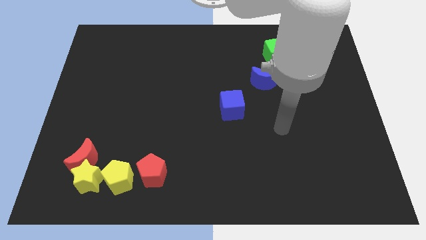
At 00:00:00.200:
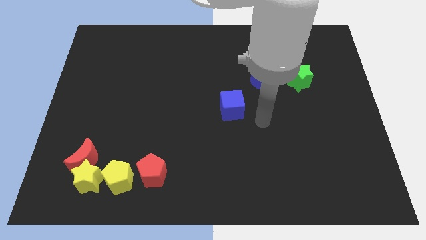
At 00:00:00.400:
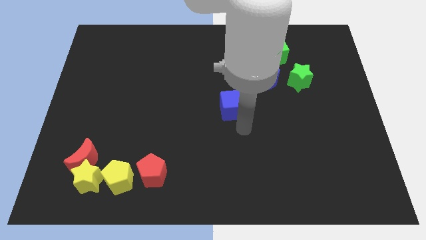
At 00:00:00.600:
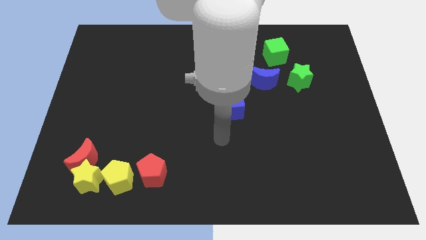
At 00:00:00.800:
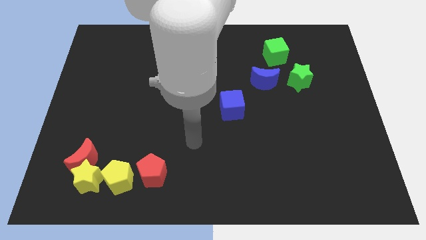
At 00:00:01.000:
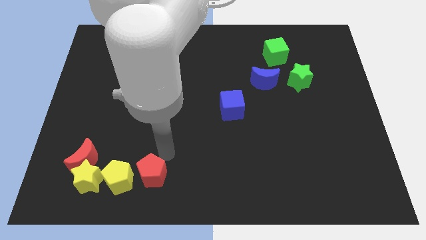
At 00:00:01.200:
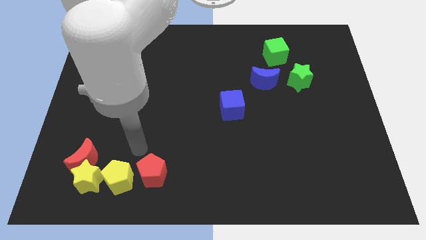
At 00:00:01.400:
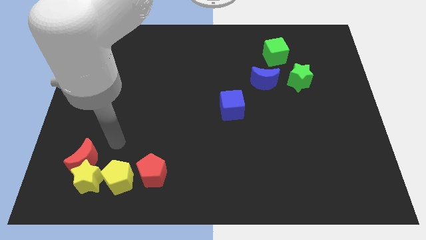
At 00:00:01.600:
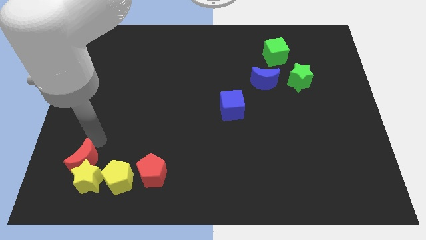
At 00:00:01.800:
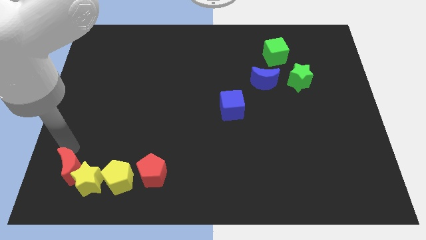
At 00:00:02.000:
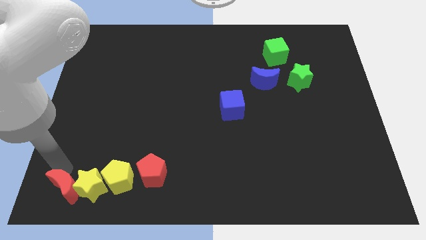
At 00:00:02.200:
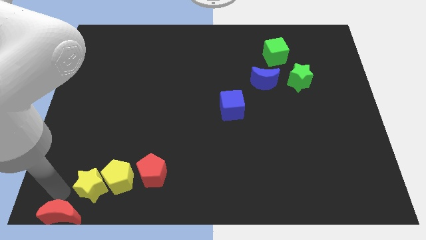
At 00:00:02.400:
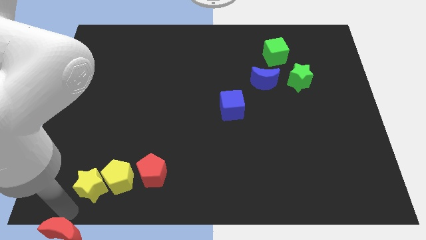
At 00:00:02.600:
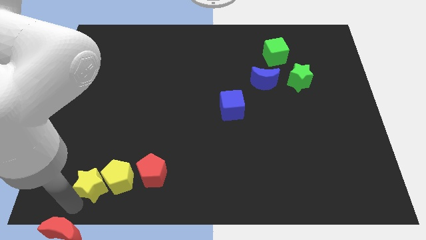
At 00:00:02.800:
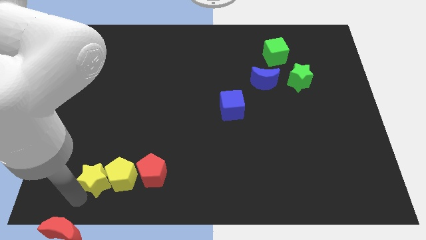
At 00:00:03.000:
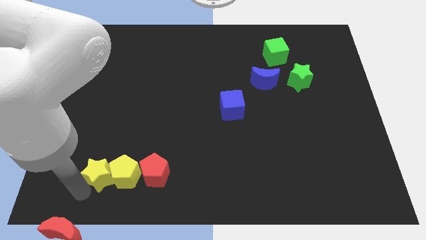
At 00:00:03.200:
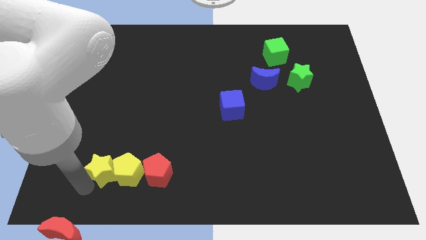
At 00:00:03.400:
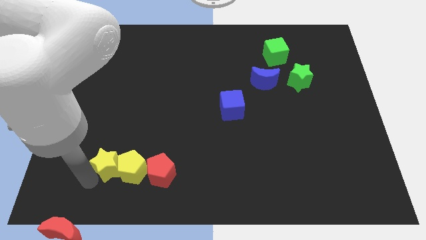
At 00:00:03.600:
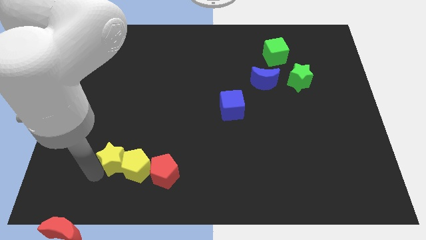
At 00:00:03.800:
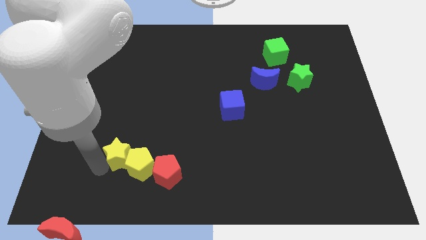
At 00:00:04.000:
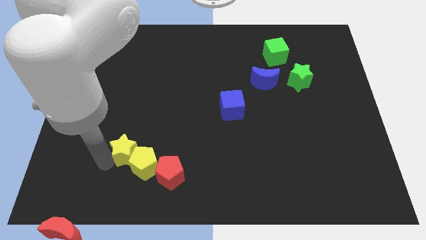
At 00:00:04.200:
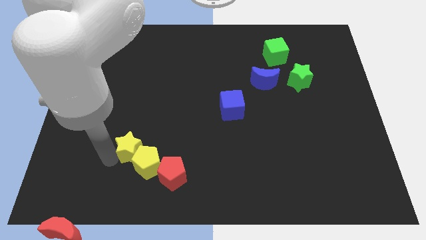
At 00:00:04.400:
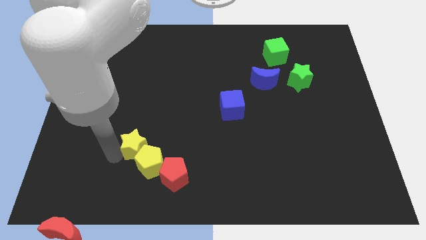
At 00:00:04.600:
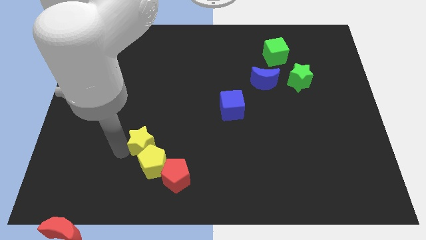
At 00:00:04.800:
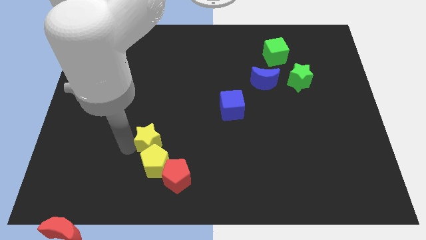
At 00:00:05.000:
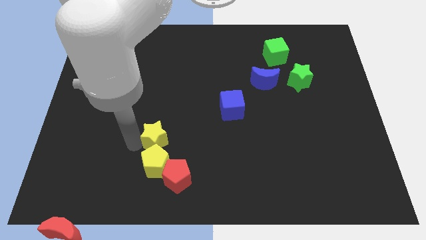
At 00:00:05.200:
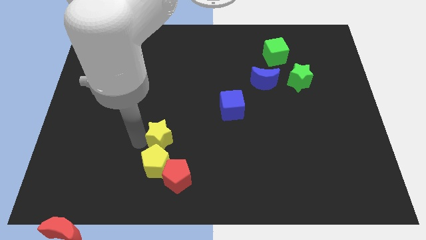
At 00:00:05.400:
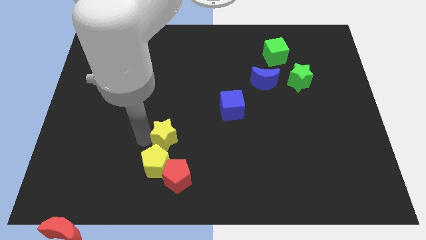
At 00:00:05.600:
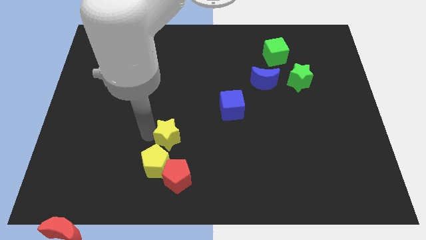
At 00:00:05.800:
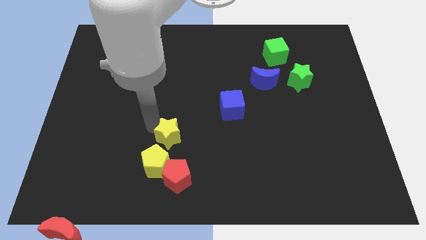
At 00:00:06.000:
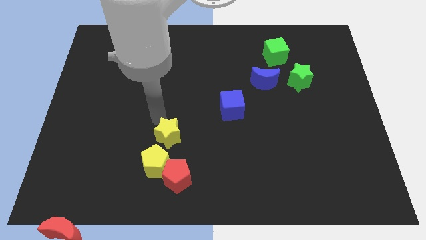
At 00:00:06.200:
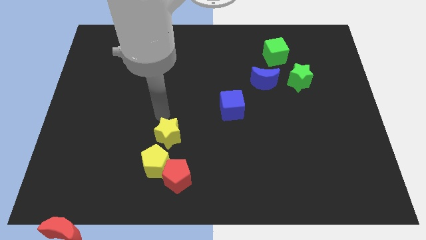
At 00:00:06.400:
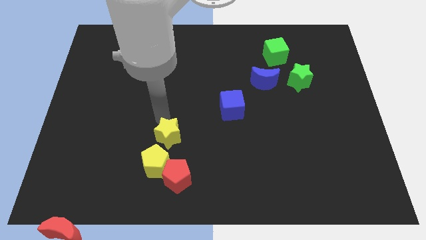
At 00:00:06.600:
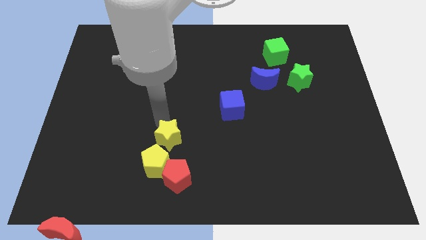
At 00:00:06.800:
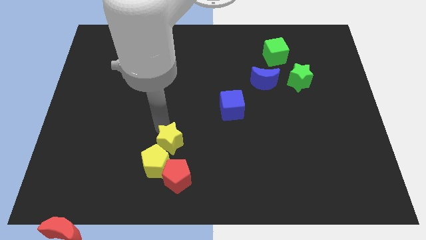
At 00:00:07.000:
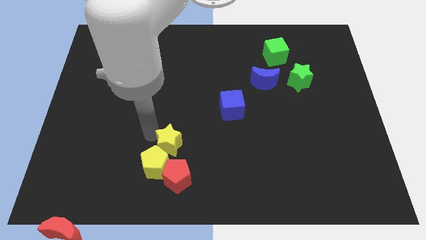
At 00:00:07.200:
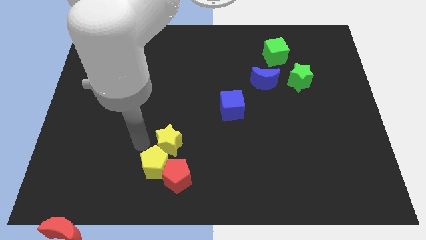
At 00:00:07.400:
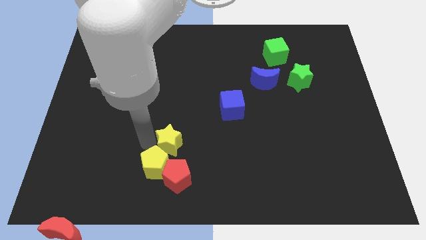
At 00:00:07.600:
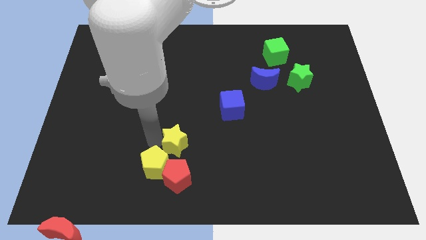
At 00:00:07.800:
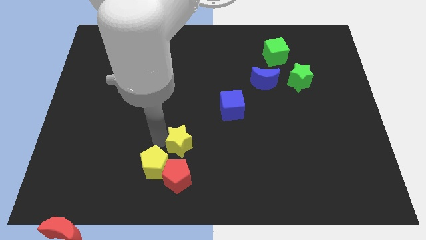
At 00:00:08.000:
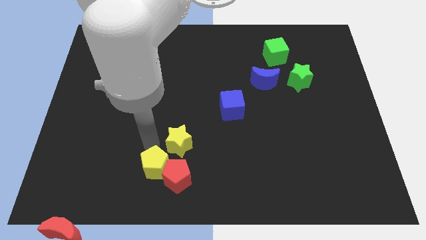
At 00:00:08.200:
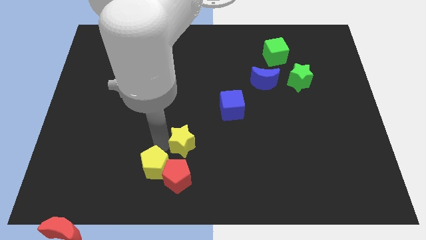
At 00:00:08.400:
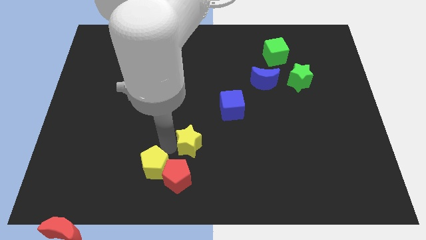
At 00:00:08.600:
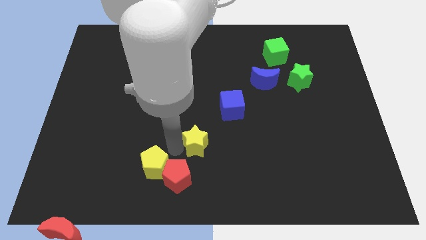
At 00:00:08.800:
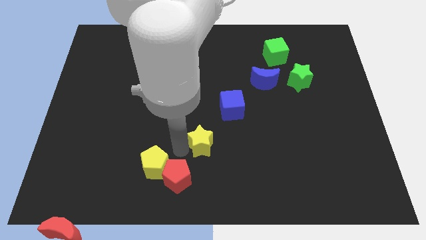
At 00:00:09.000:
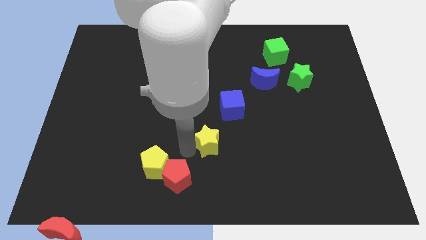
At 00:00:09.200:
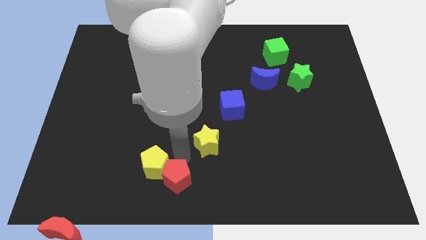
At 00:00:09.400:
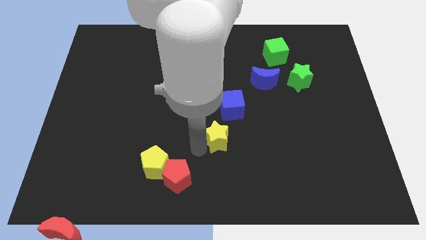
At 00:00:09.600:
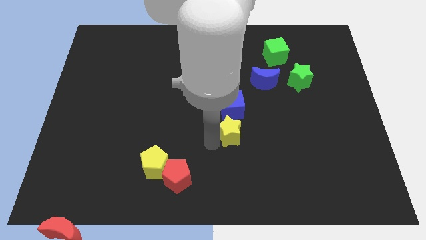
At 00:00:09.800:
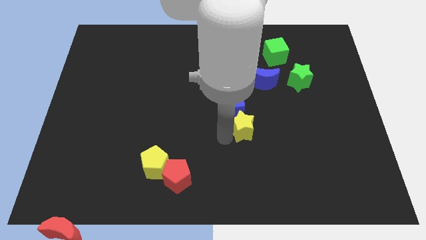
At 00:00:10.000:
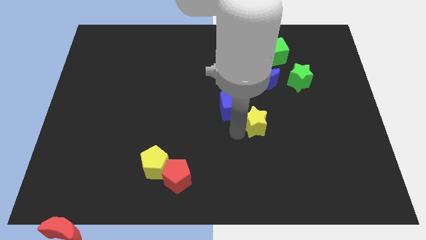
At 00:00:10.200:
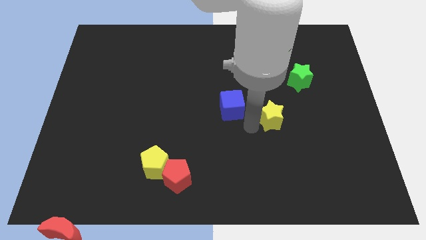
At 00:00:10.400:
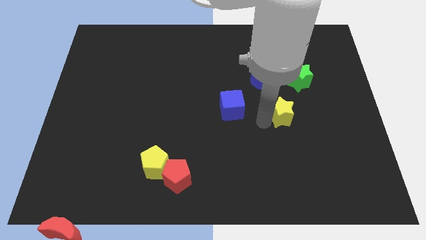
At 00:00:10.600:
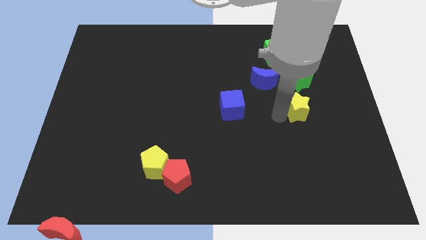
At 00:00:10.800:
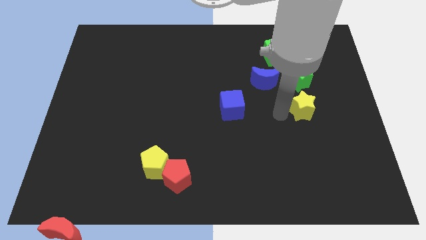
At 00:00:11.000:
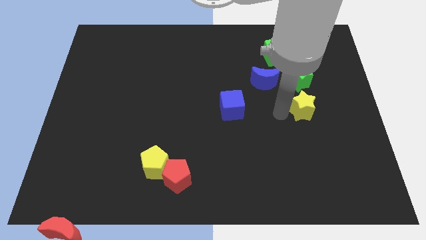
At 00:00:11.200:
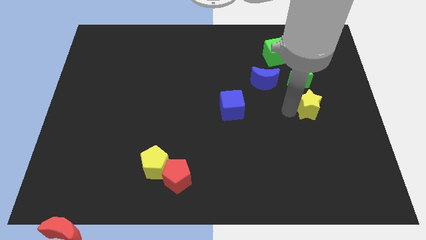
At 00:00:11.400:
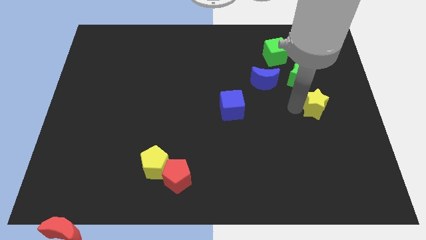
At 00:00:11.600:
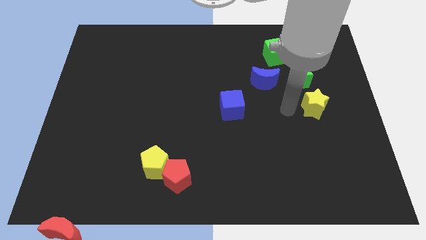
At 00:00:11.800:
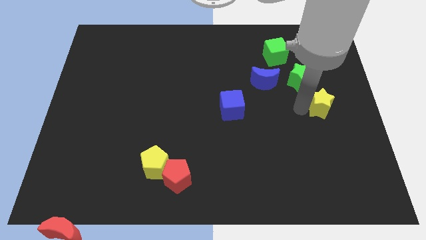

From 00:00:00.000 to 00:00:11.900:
move the yellow star to the right side of the board

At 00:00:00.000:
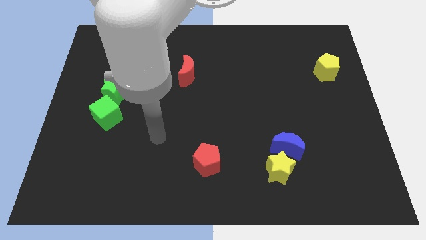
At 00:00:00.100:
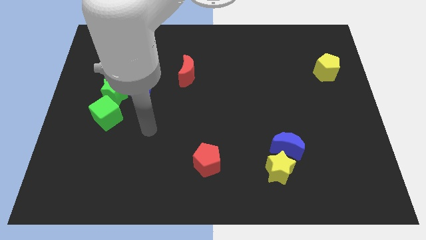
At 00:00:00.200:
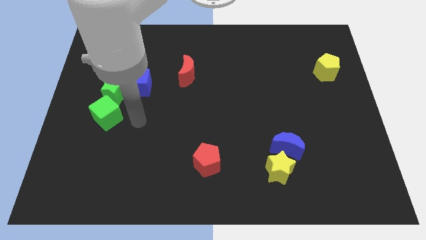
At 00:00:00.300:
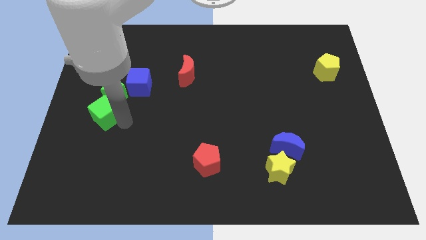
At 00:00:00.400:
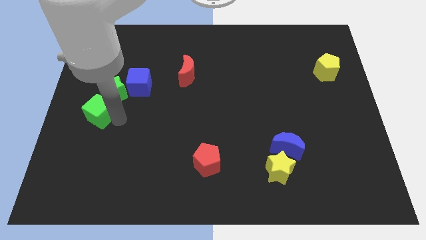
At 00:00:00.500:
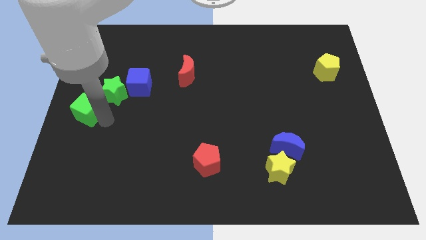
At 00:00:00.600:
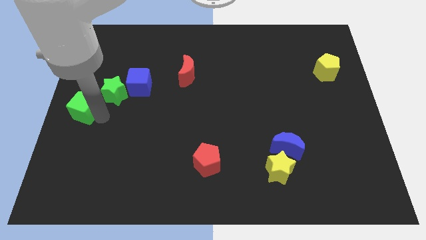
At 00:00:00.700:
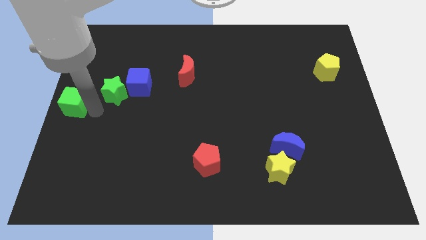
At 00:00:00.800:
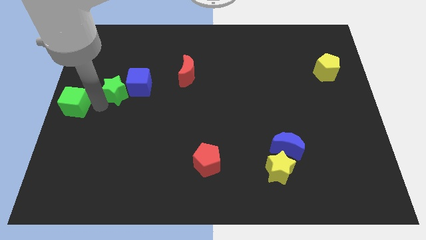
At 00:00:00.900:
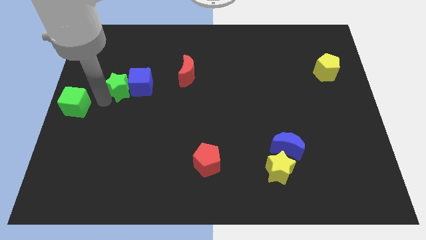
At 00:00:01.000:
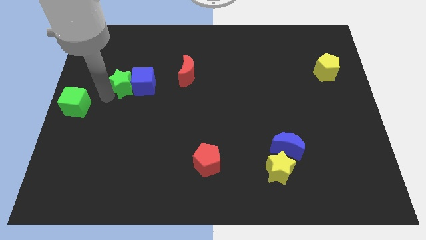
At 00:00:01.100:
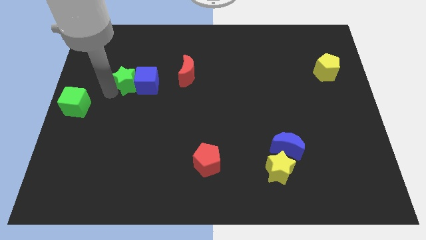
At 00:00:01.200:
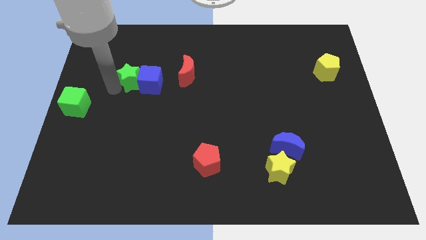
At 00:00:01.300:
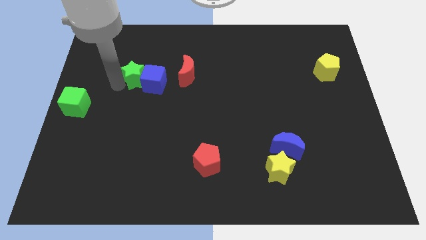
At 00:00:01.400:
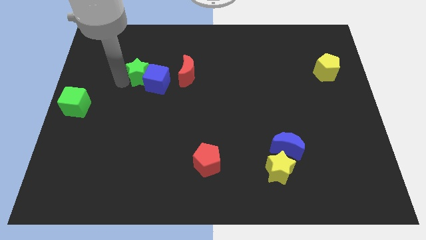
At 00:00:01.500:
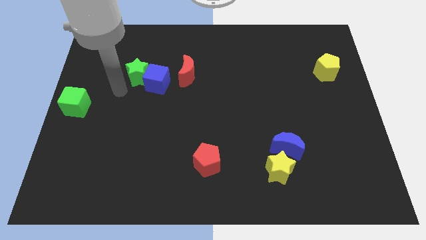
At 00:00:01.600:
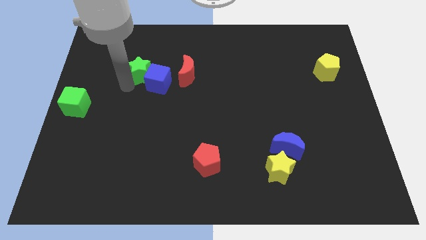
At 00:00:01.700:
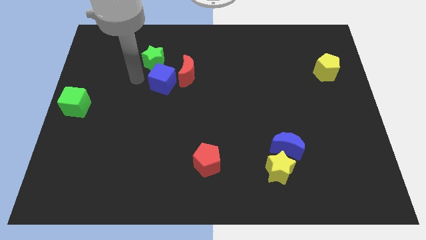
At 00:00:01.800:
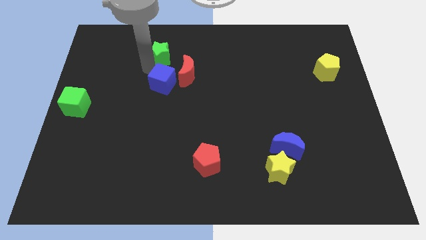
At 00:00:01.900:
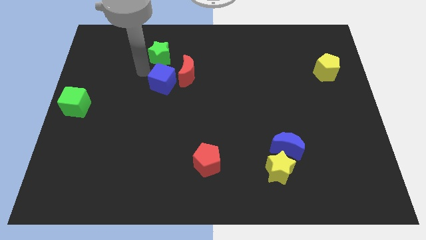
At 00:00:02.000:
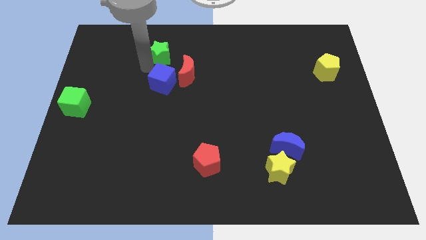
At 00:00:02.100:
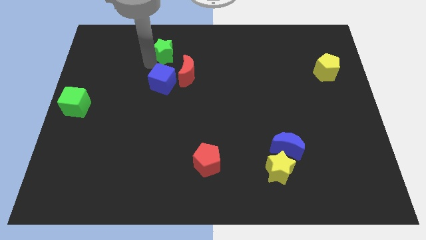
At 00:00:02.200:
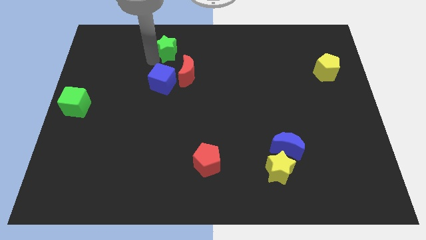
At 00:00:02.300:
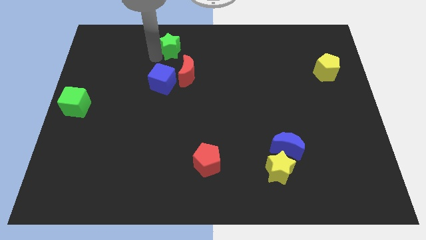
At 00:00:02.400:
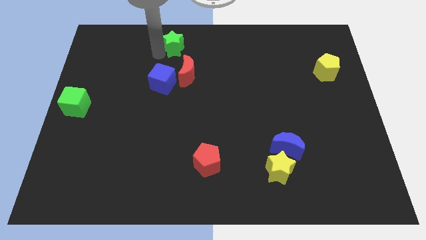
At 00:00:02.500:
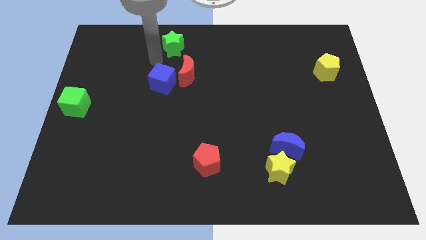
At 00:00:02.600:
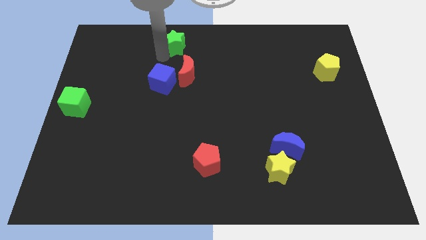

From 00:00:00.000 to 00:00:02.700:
push the green star to the top
